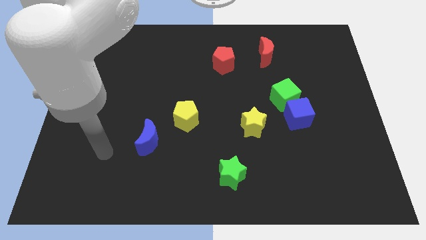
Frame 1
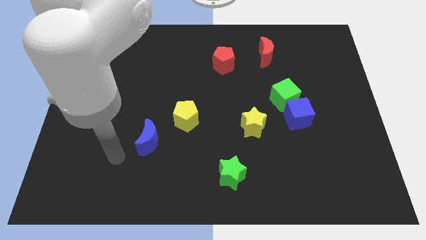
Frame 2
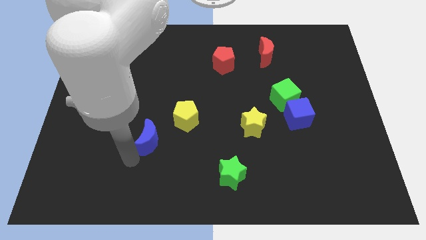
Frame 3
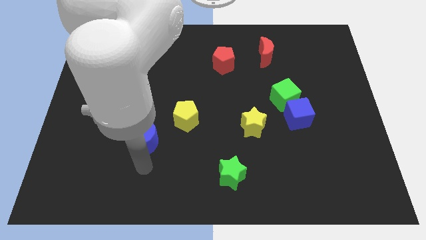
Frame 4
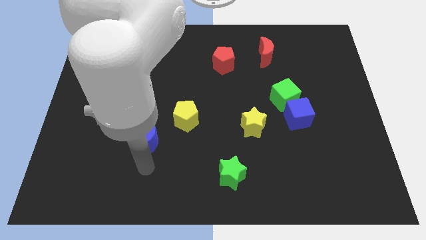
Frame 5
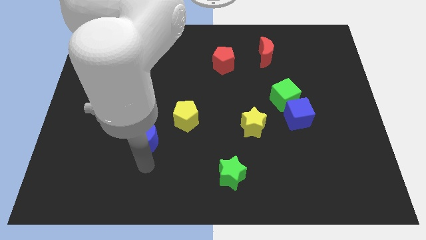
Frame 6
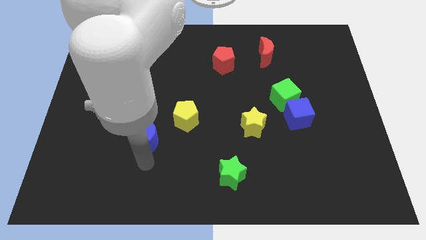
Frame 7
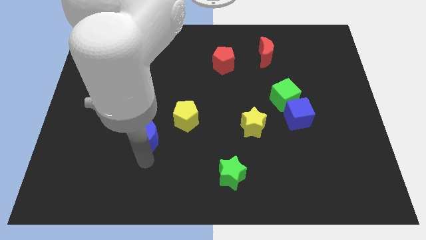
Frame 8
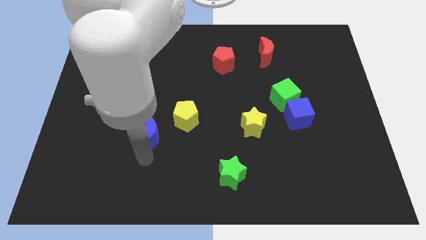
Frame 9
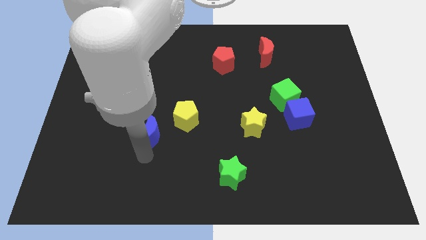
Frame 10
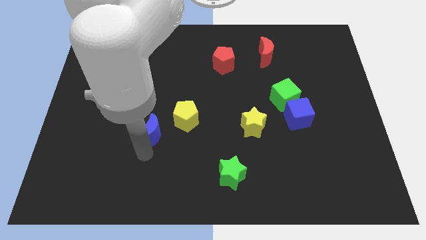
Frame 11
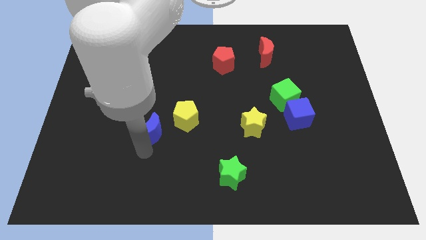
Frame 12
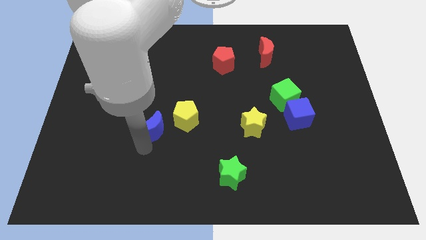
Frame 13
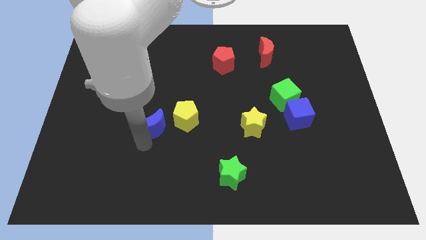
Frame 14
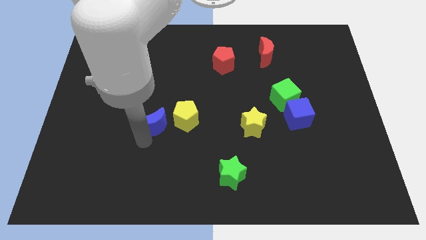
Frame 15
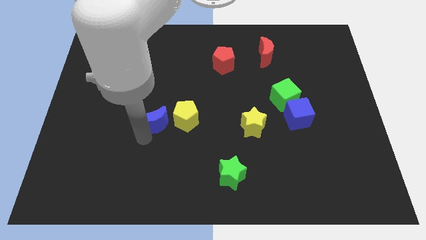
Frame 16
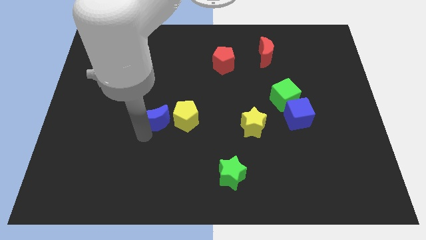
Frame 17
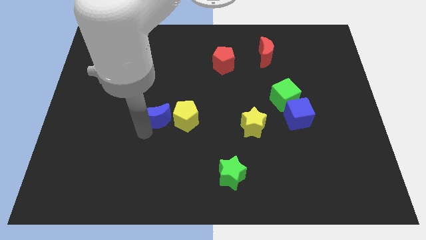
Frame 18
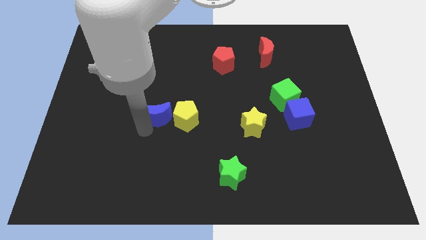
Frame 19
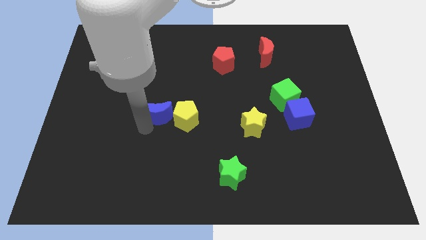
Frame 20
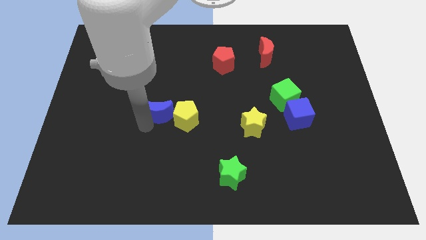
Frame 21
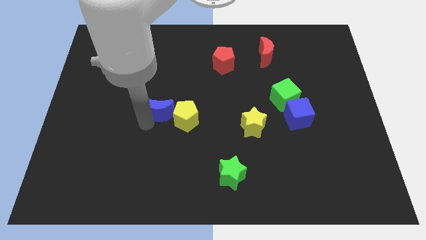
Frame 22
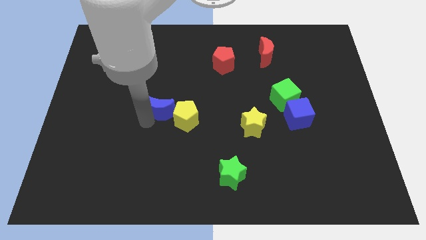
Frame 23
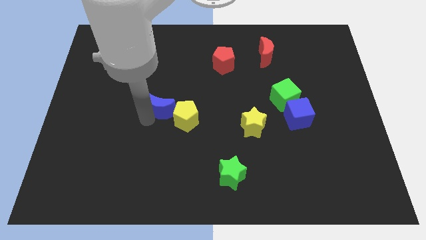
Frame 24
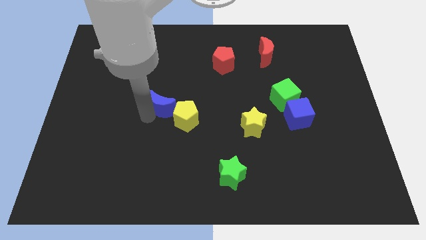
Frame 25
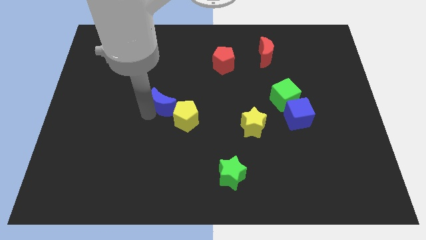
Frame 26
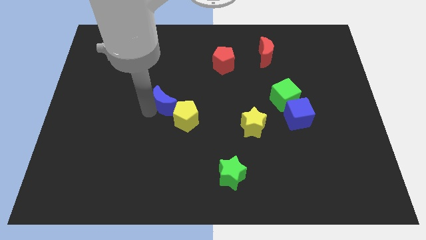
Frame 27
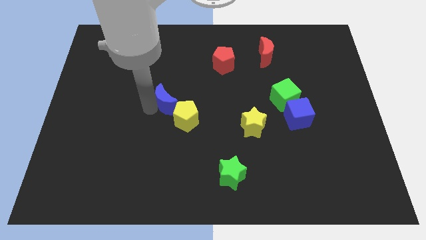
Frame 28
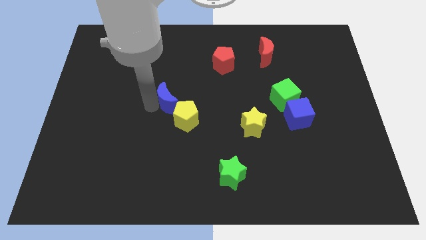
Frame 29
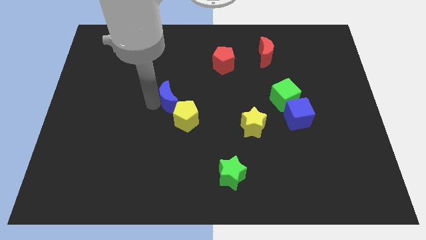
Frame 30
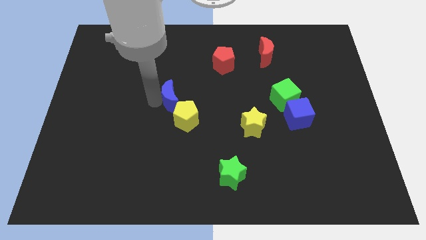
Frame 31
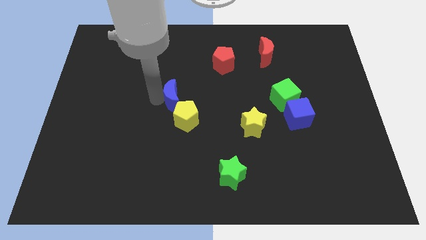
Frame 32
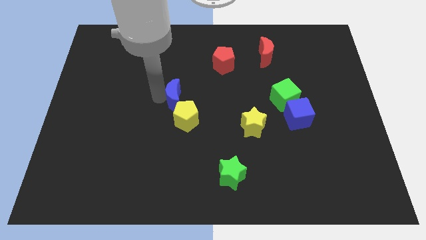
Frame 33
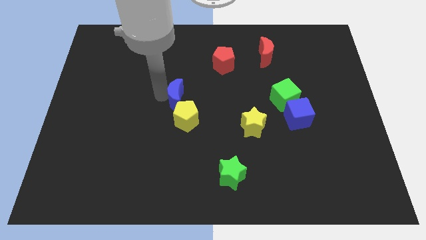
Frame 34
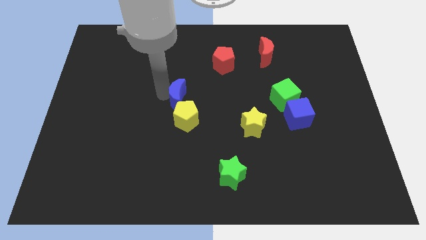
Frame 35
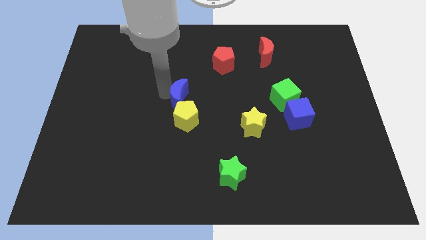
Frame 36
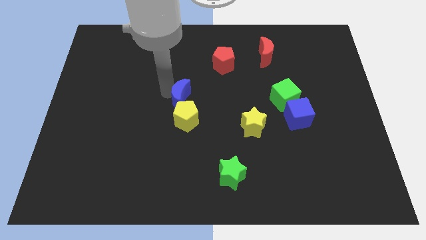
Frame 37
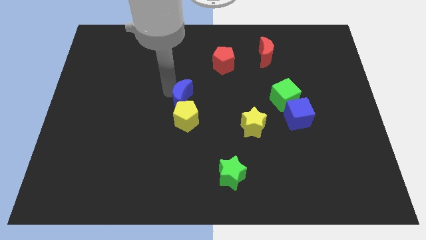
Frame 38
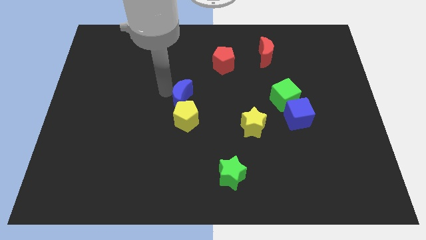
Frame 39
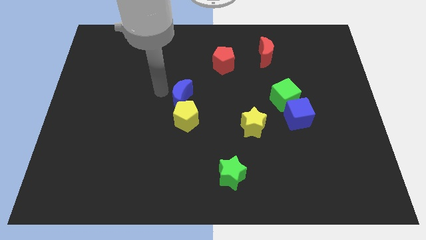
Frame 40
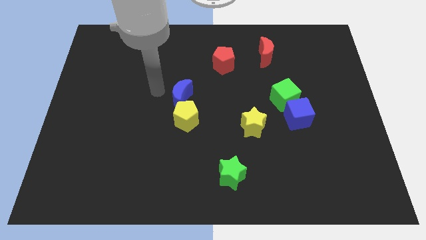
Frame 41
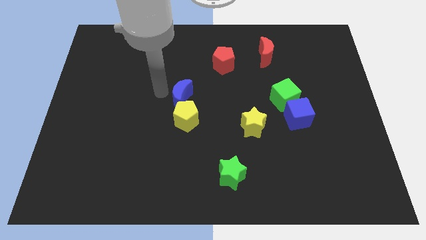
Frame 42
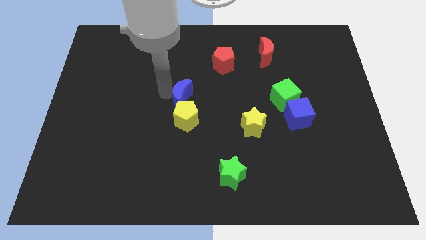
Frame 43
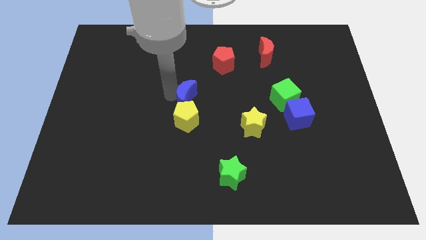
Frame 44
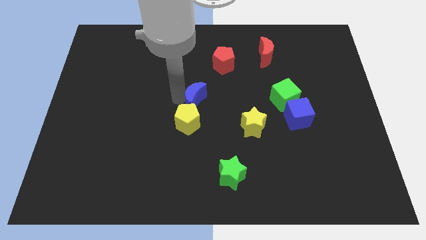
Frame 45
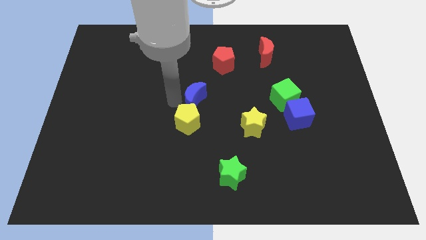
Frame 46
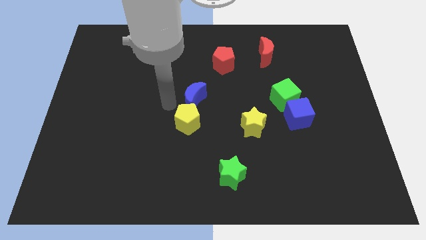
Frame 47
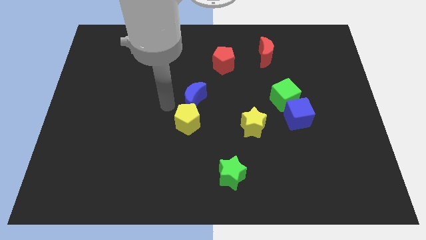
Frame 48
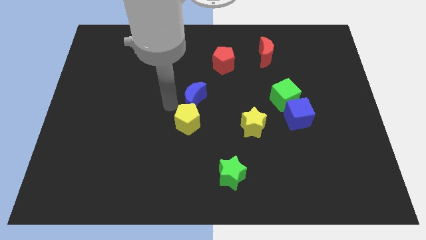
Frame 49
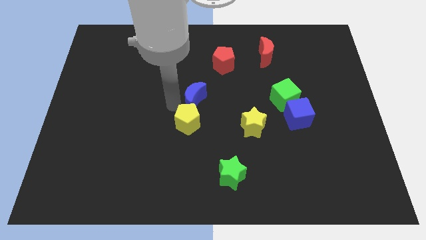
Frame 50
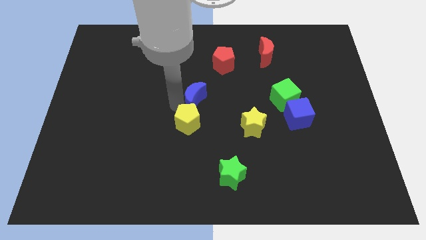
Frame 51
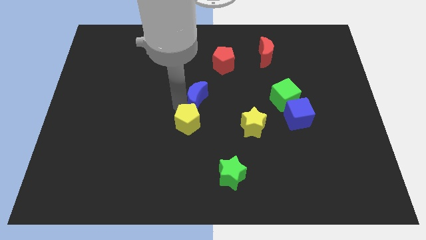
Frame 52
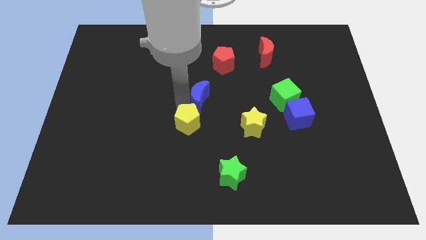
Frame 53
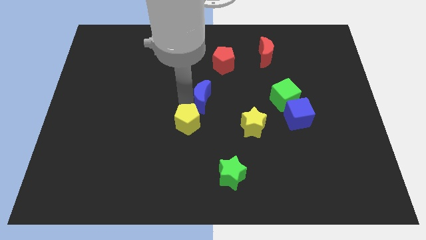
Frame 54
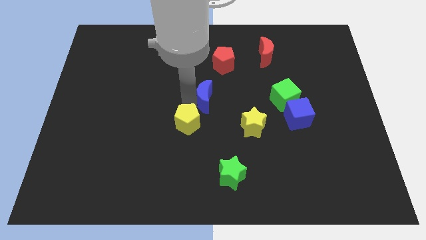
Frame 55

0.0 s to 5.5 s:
push the blue moon below the red pentagon

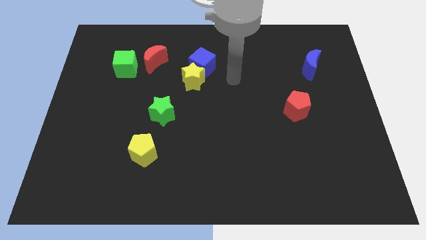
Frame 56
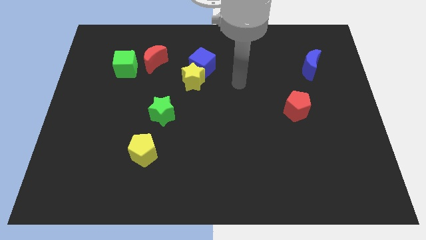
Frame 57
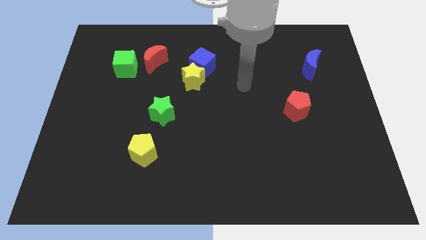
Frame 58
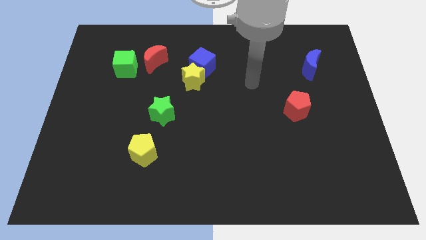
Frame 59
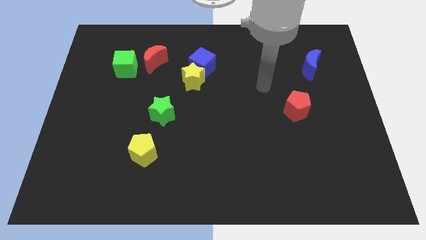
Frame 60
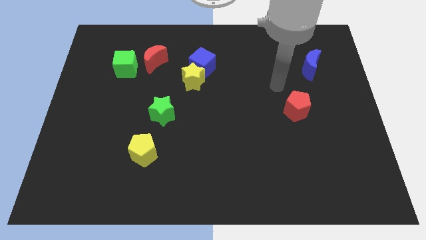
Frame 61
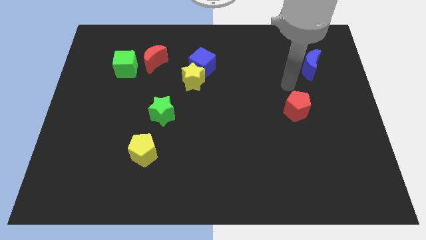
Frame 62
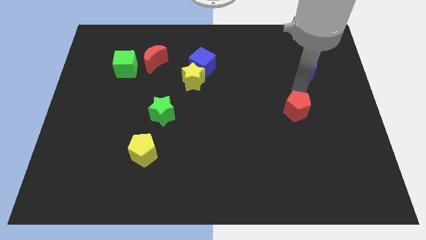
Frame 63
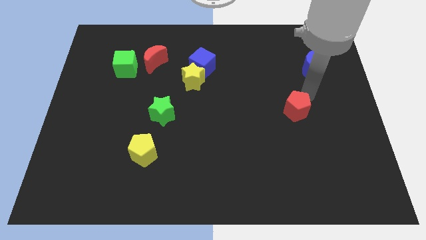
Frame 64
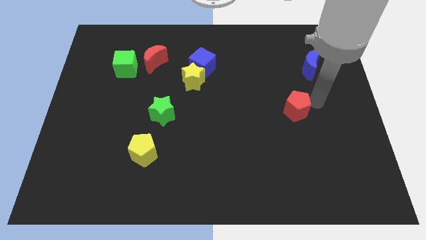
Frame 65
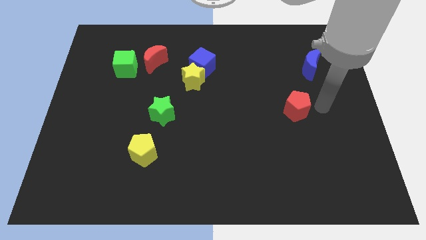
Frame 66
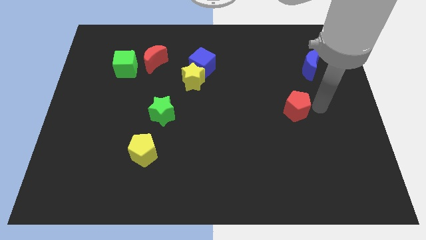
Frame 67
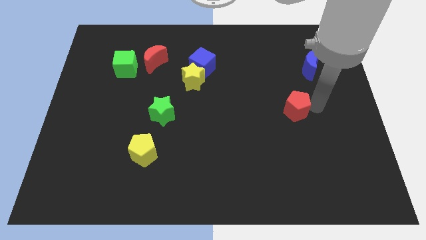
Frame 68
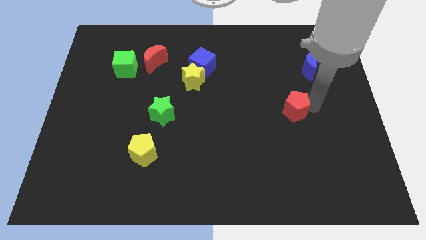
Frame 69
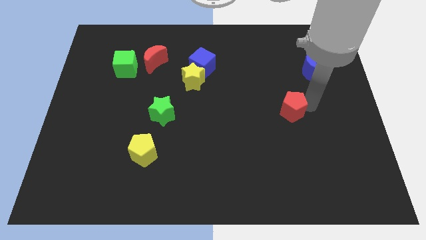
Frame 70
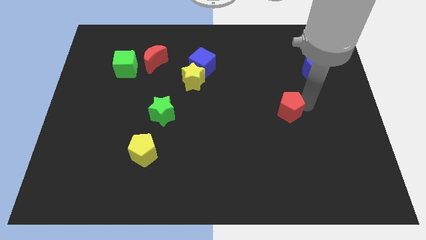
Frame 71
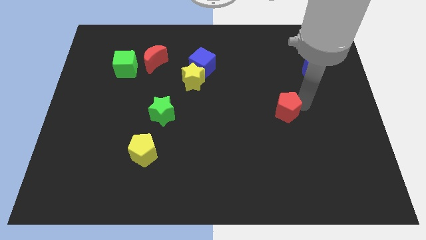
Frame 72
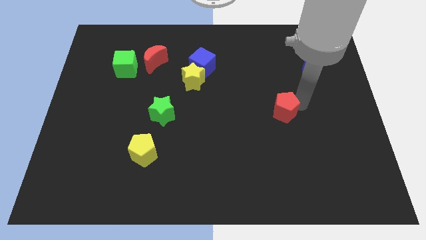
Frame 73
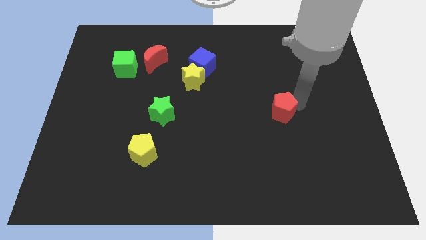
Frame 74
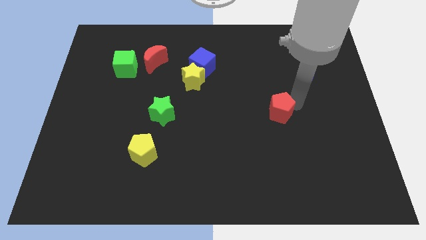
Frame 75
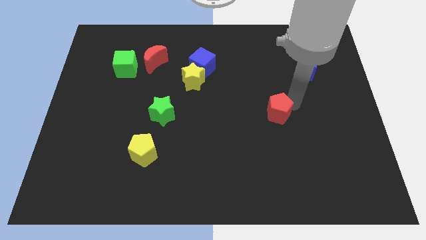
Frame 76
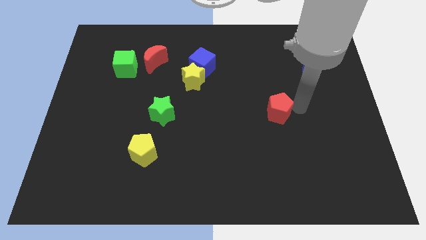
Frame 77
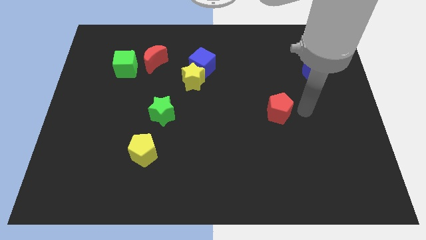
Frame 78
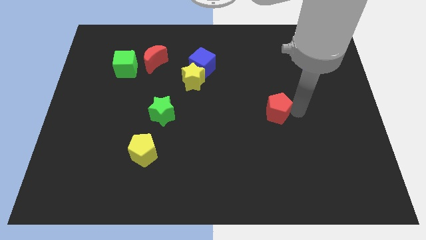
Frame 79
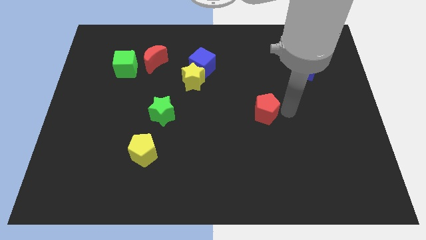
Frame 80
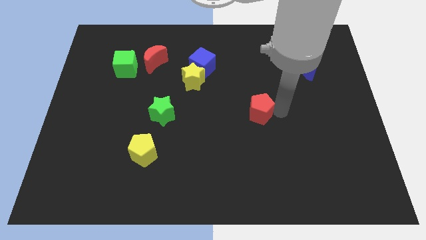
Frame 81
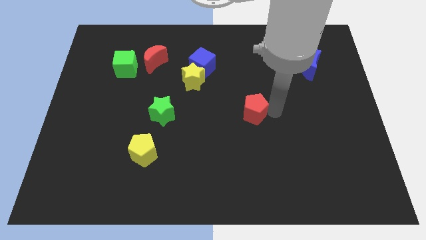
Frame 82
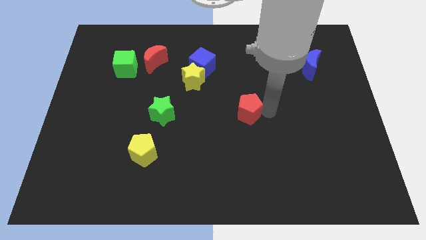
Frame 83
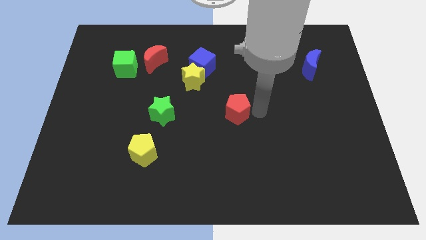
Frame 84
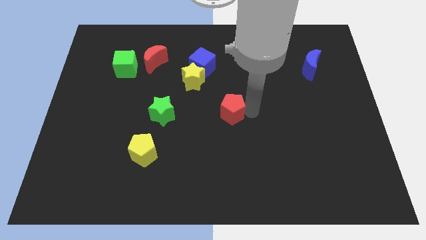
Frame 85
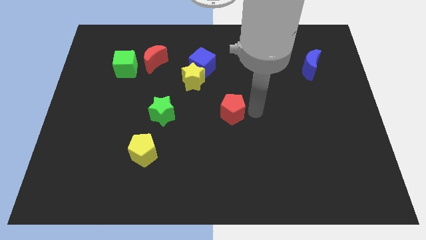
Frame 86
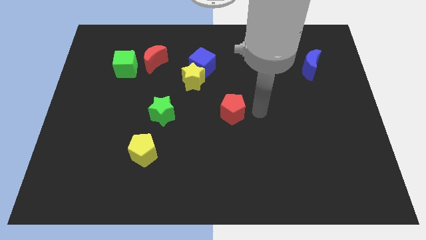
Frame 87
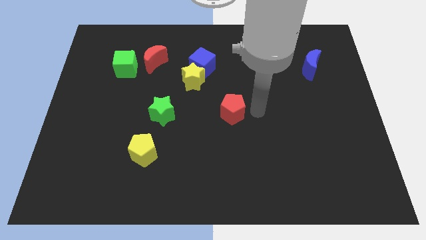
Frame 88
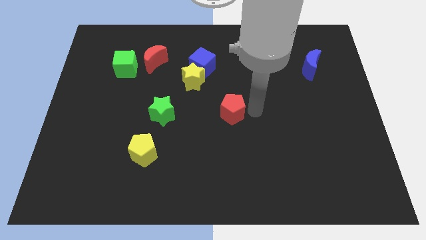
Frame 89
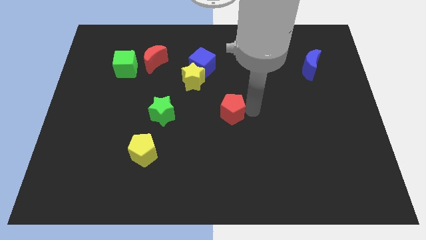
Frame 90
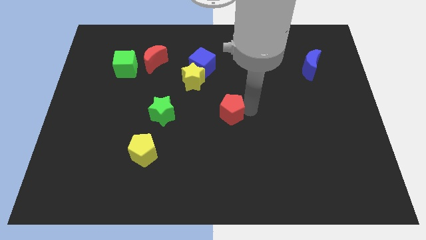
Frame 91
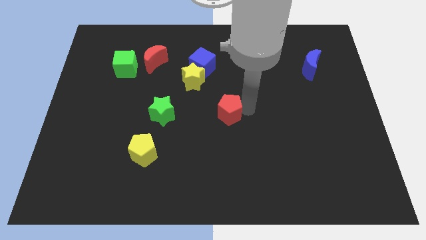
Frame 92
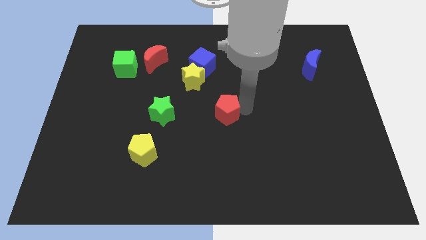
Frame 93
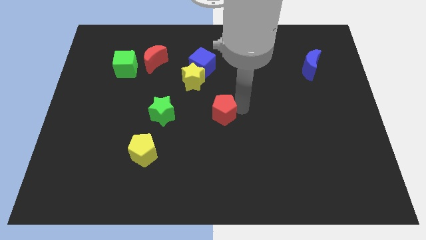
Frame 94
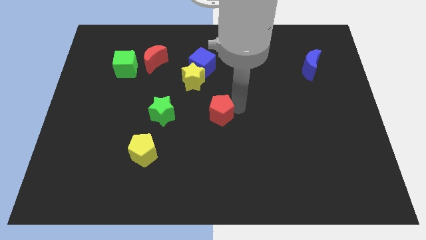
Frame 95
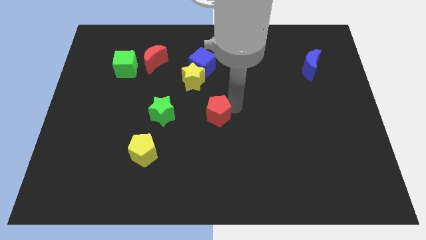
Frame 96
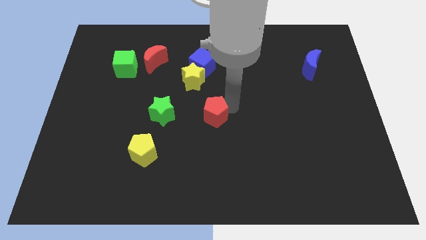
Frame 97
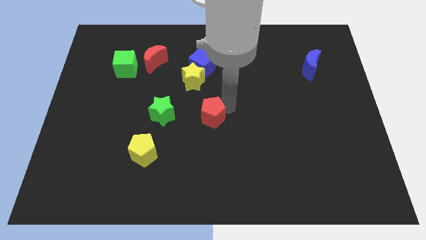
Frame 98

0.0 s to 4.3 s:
push the red pentagon to the bottom side of the yellow star
